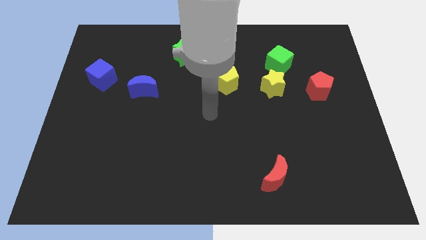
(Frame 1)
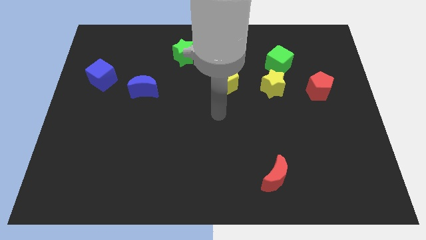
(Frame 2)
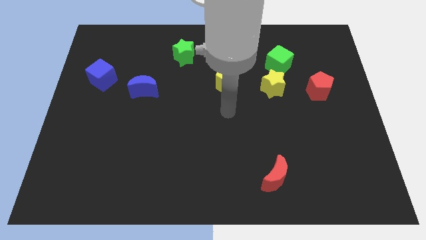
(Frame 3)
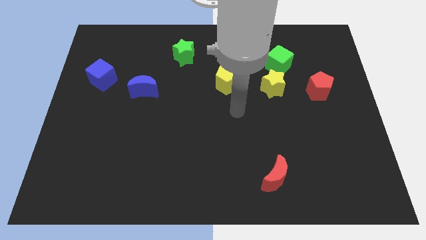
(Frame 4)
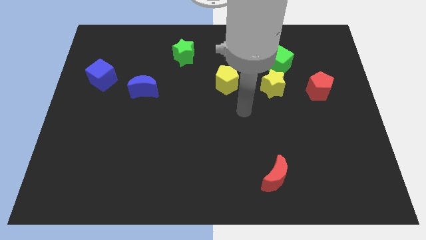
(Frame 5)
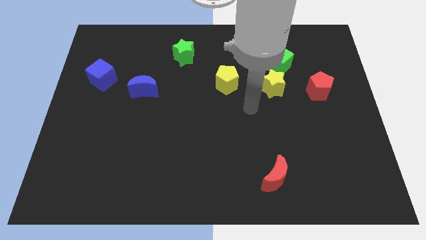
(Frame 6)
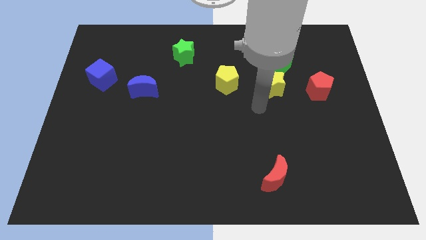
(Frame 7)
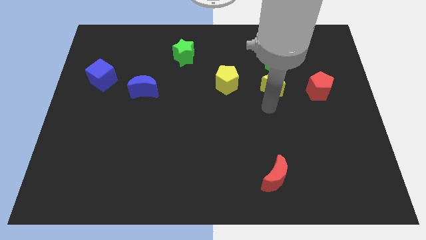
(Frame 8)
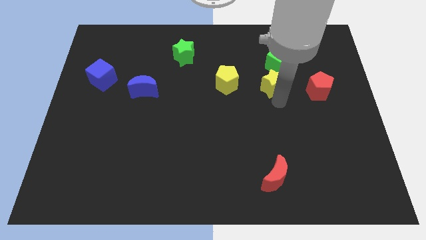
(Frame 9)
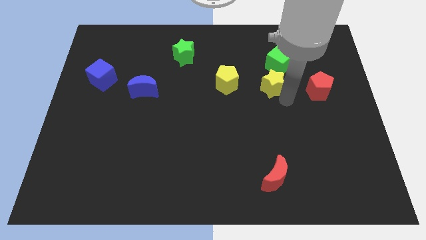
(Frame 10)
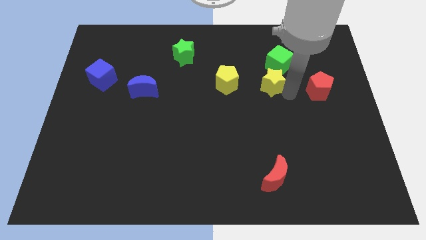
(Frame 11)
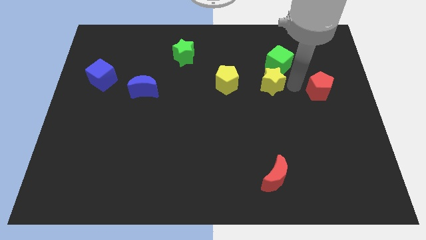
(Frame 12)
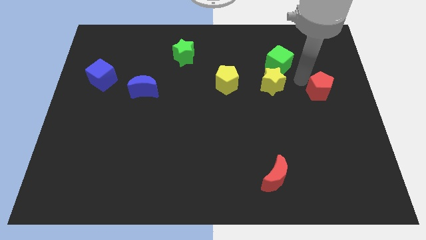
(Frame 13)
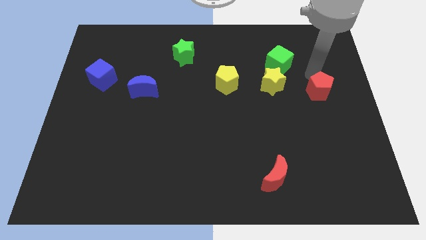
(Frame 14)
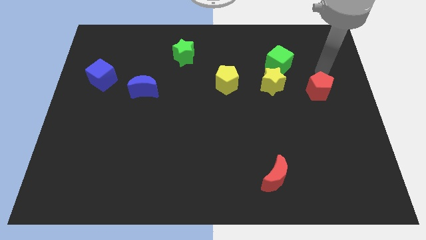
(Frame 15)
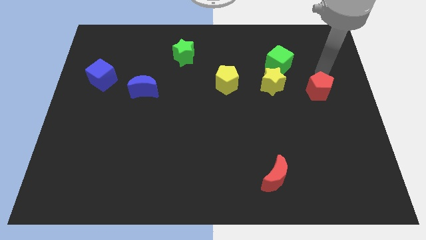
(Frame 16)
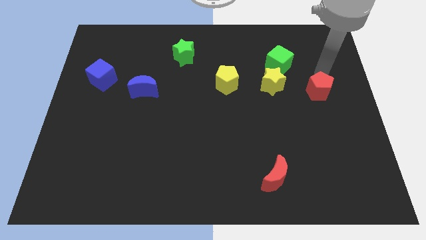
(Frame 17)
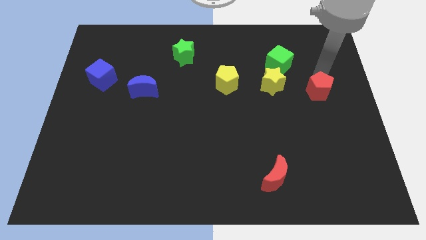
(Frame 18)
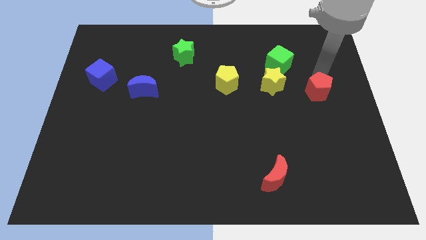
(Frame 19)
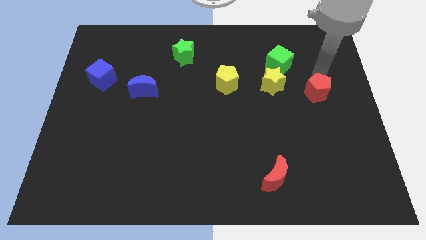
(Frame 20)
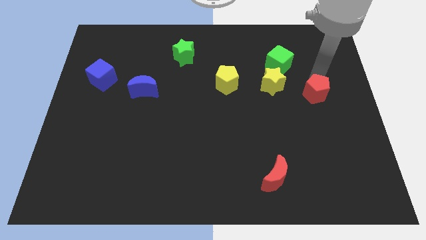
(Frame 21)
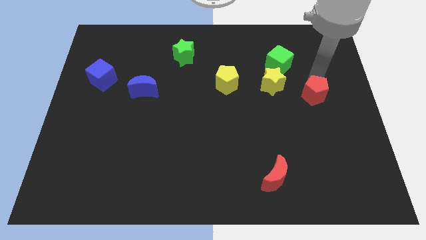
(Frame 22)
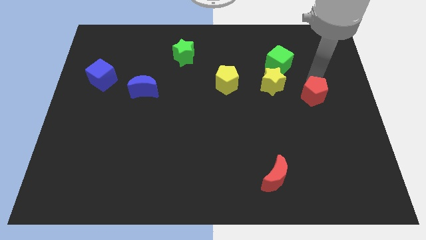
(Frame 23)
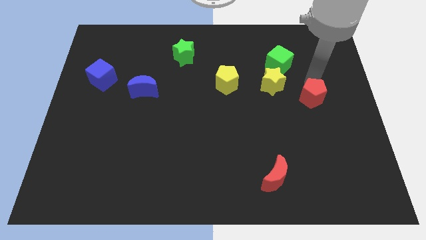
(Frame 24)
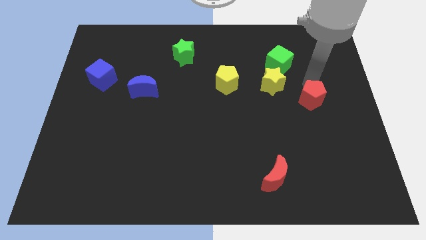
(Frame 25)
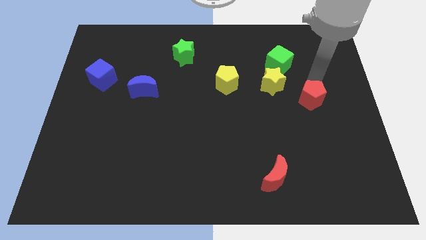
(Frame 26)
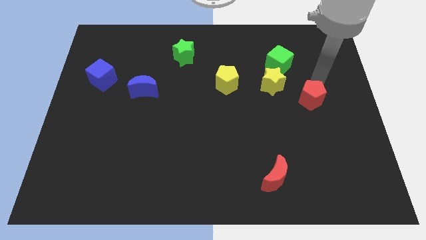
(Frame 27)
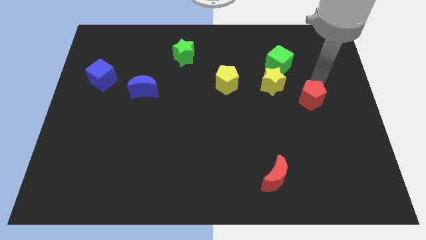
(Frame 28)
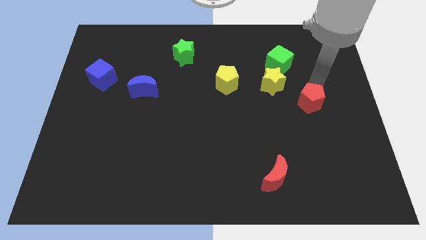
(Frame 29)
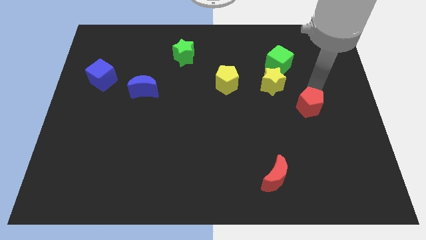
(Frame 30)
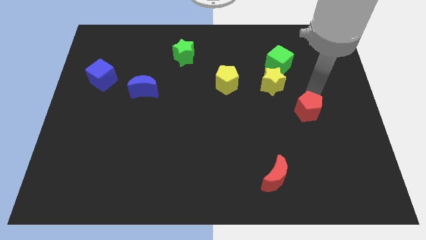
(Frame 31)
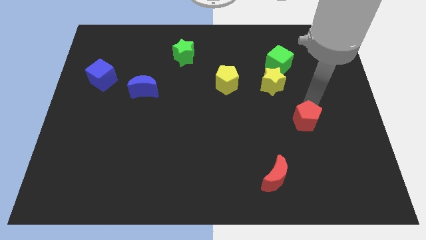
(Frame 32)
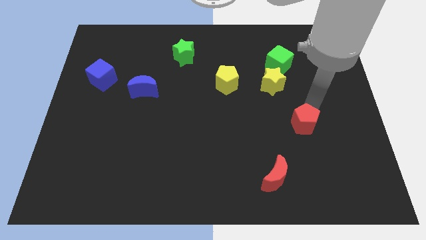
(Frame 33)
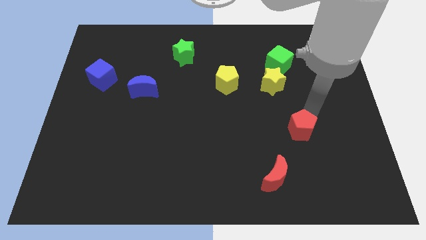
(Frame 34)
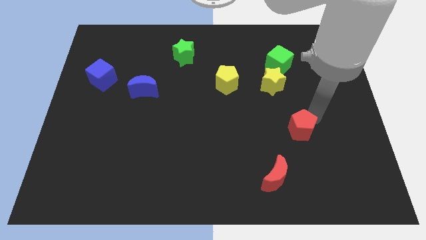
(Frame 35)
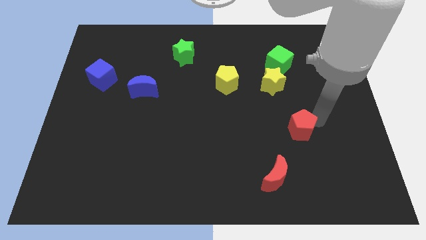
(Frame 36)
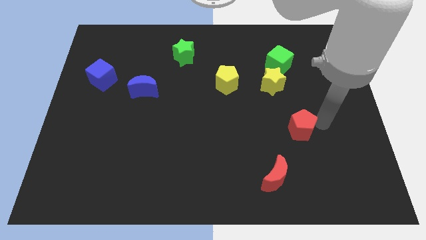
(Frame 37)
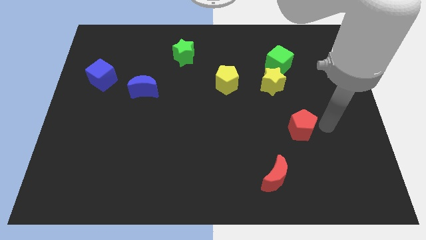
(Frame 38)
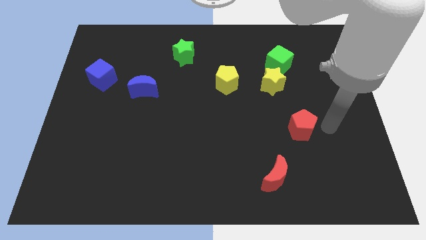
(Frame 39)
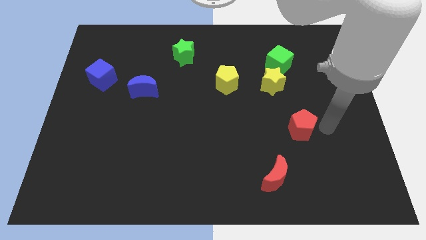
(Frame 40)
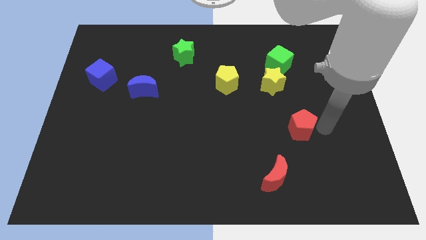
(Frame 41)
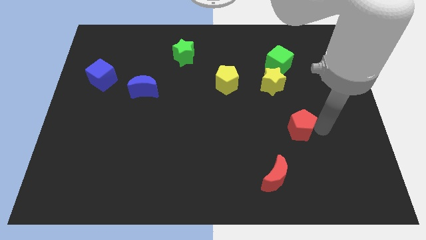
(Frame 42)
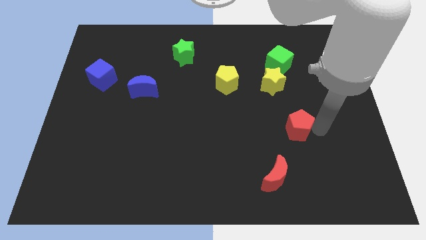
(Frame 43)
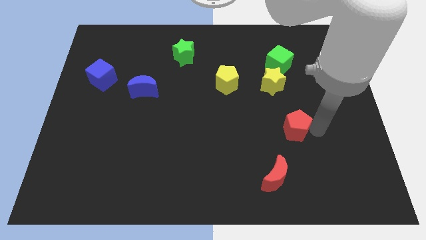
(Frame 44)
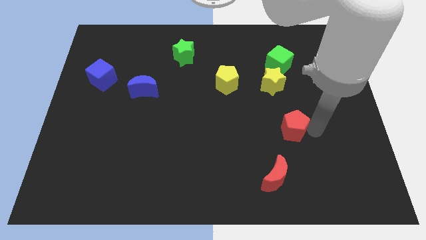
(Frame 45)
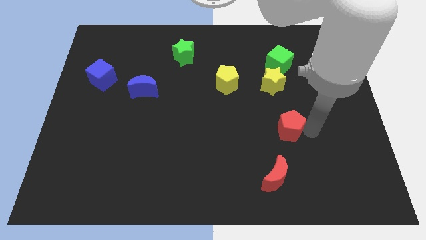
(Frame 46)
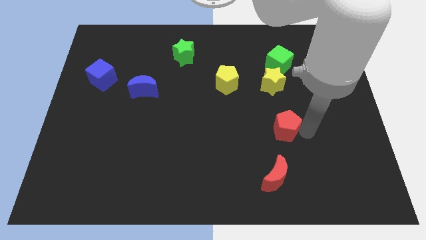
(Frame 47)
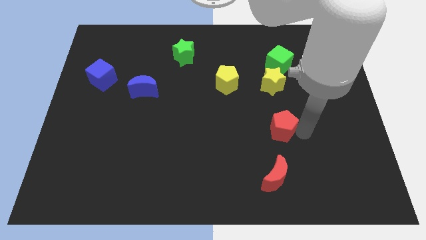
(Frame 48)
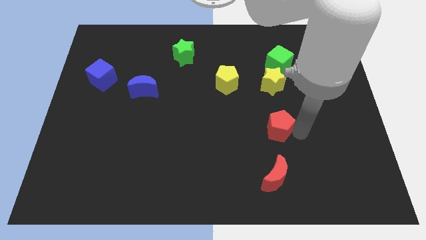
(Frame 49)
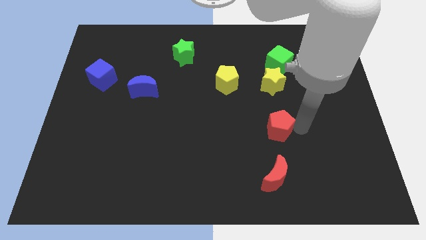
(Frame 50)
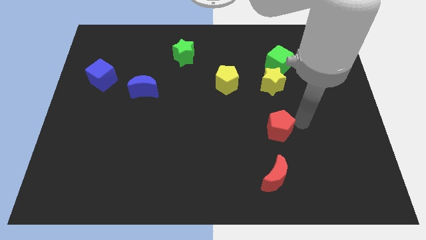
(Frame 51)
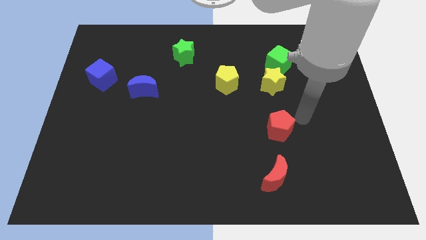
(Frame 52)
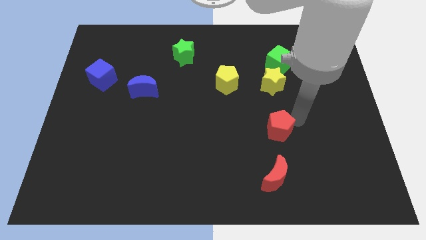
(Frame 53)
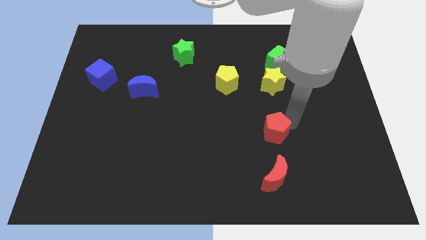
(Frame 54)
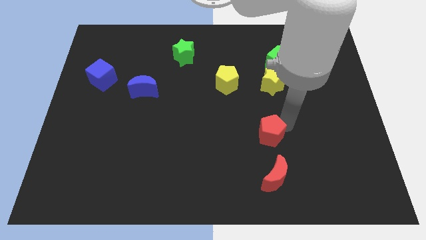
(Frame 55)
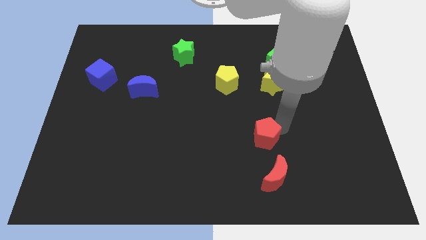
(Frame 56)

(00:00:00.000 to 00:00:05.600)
move the red pentagon downwards and then to the left

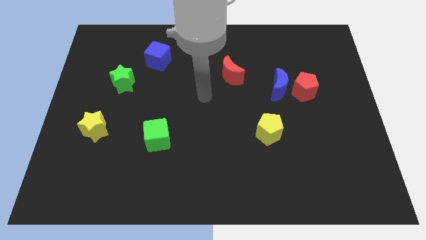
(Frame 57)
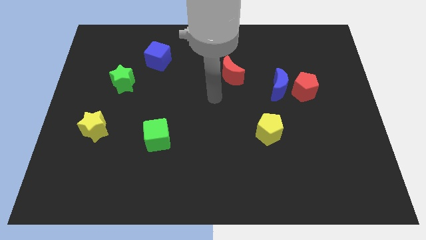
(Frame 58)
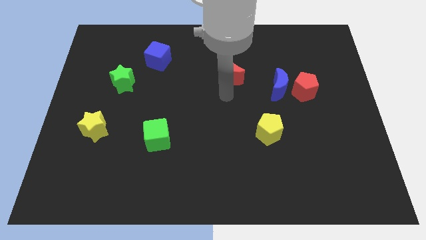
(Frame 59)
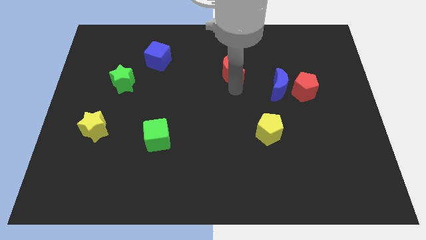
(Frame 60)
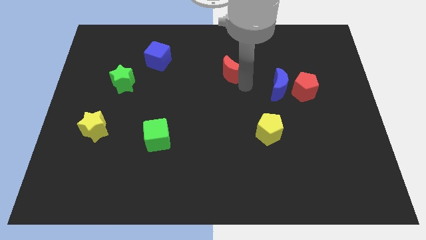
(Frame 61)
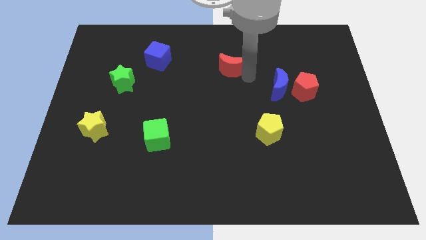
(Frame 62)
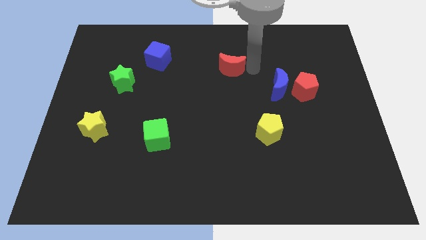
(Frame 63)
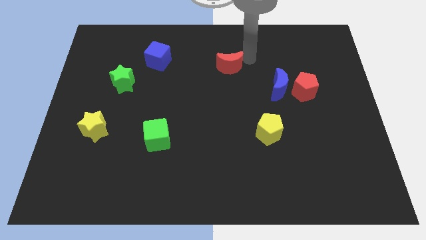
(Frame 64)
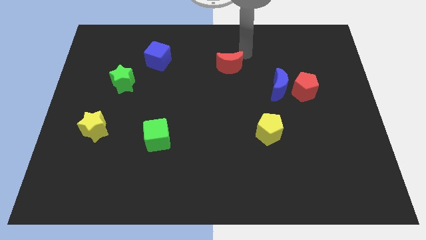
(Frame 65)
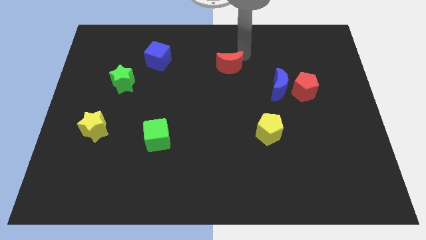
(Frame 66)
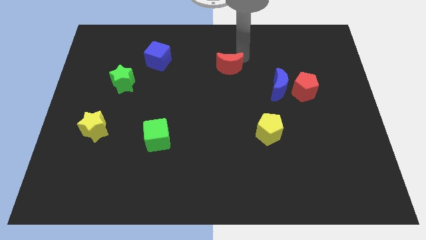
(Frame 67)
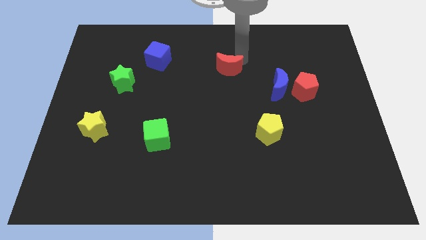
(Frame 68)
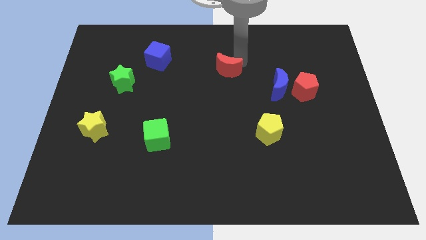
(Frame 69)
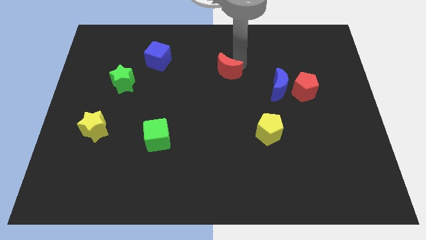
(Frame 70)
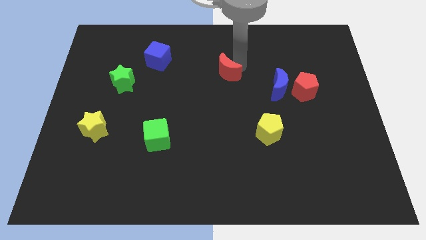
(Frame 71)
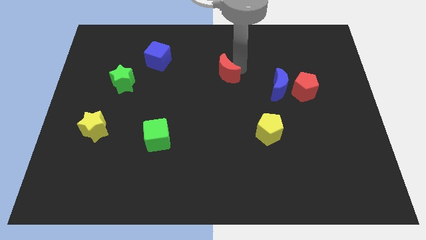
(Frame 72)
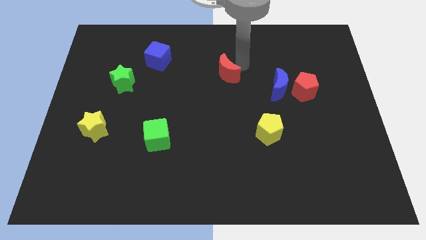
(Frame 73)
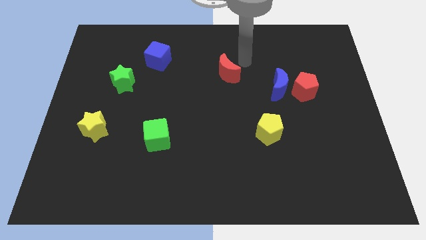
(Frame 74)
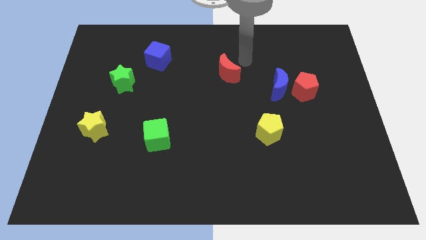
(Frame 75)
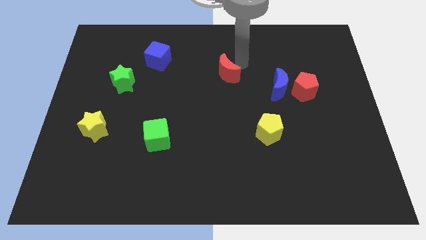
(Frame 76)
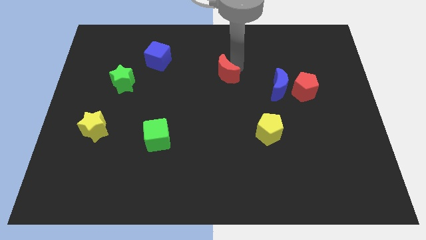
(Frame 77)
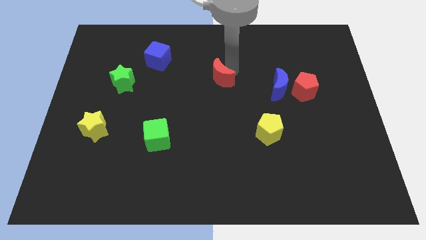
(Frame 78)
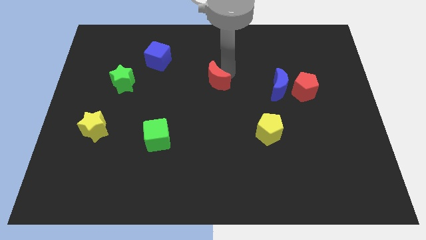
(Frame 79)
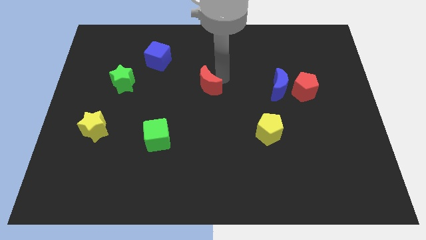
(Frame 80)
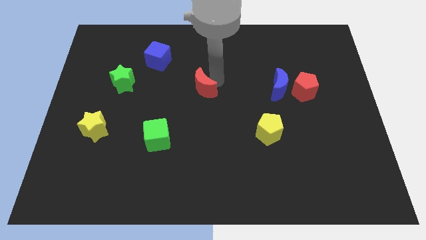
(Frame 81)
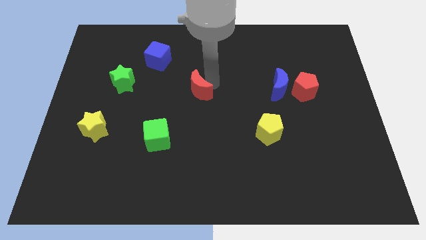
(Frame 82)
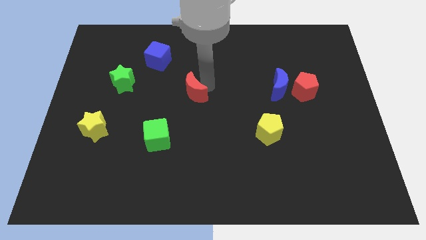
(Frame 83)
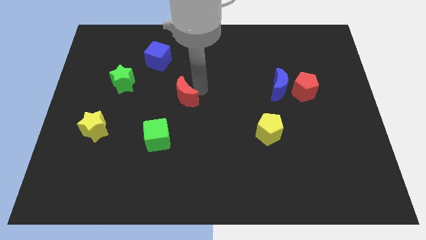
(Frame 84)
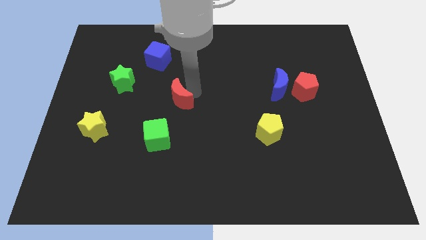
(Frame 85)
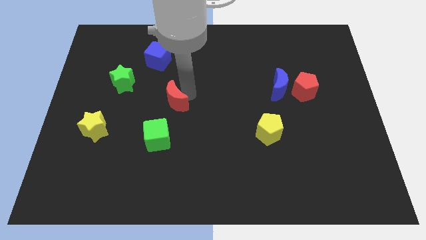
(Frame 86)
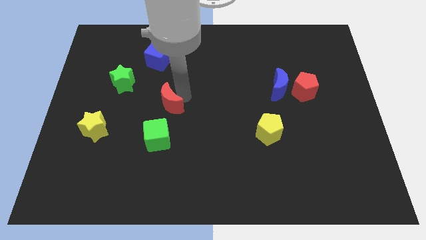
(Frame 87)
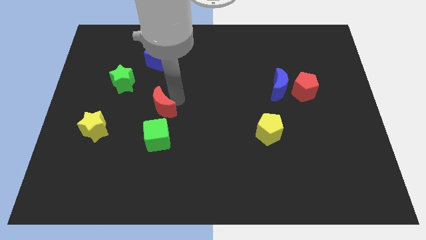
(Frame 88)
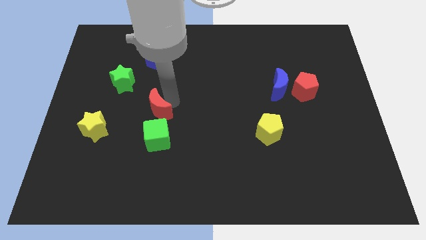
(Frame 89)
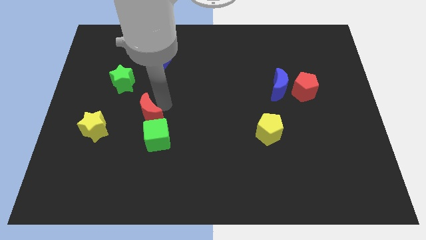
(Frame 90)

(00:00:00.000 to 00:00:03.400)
push the red moon downwards and left diagonally
